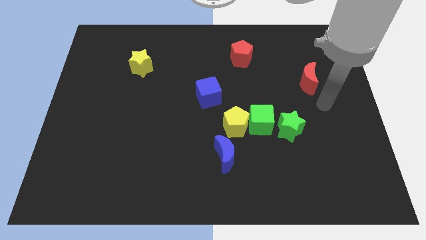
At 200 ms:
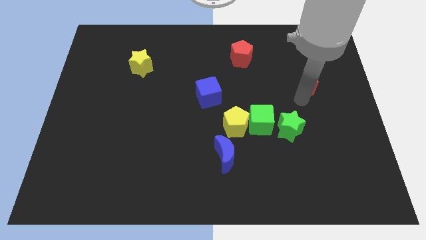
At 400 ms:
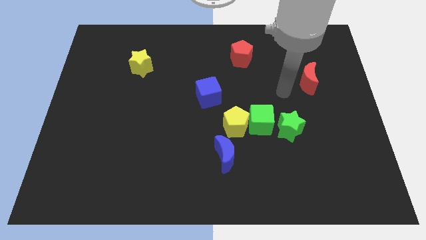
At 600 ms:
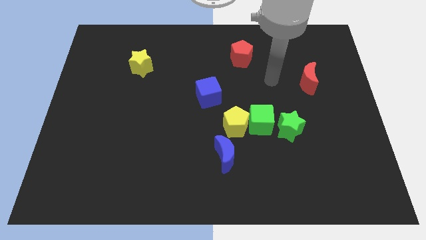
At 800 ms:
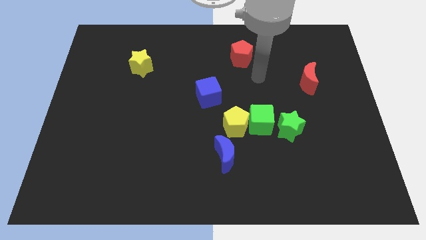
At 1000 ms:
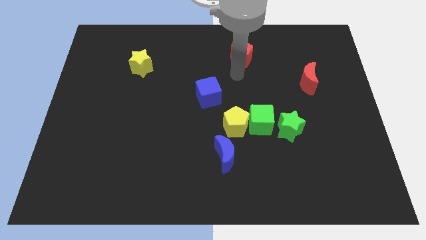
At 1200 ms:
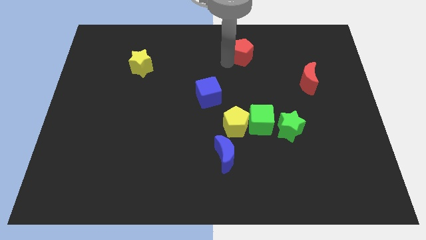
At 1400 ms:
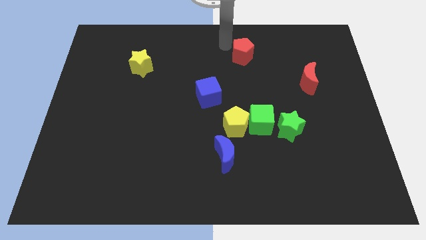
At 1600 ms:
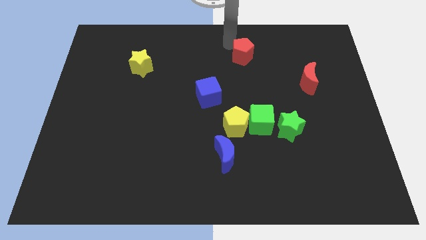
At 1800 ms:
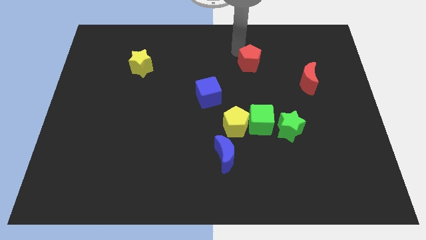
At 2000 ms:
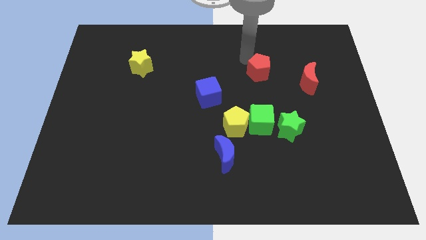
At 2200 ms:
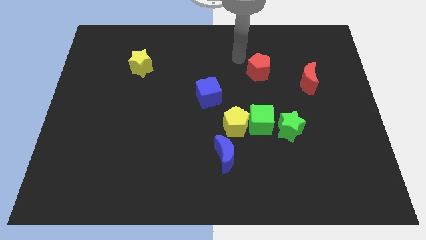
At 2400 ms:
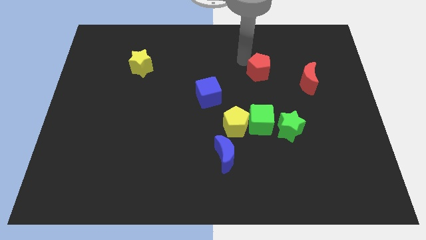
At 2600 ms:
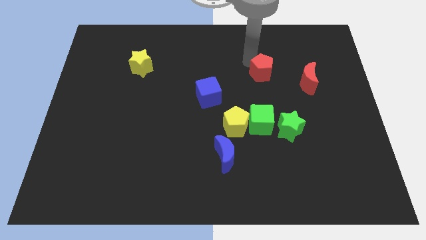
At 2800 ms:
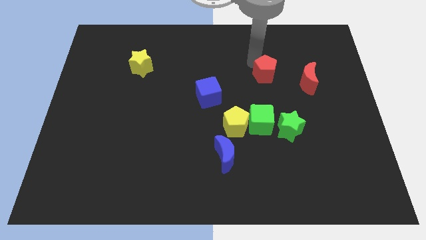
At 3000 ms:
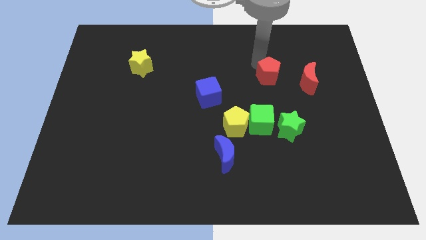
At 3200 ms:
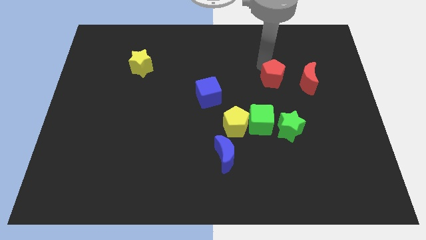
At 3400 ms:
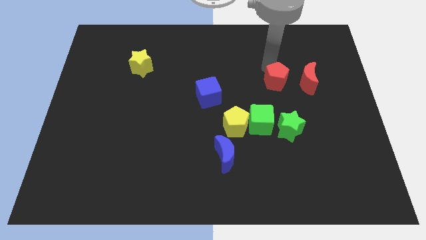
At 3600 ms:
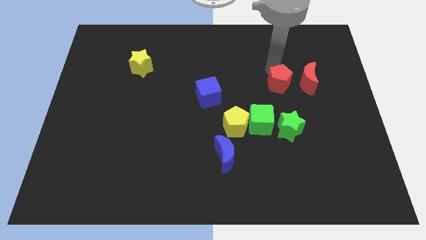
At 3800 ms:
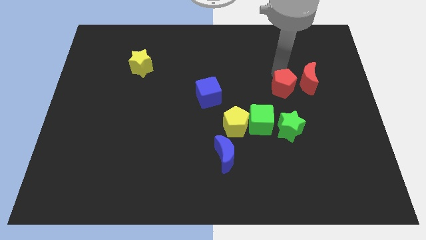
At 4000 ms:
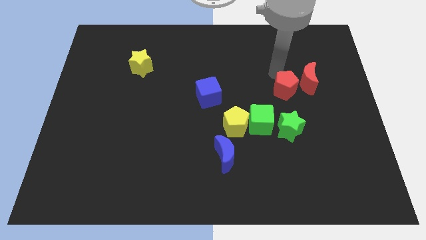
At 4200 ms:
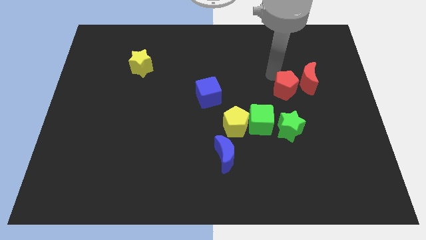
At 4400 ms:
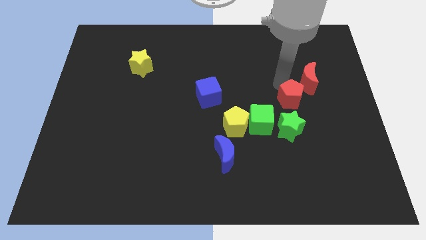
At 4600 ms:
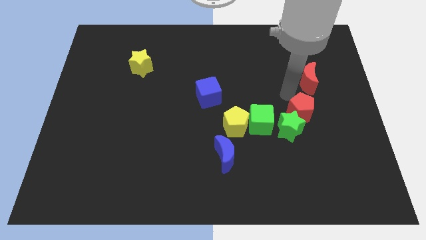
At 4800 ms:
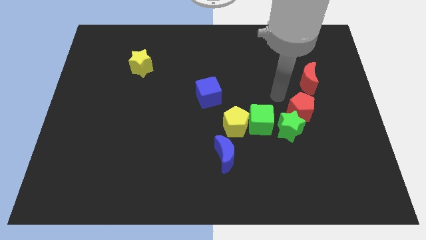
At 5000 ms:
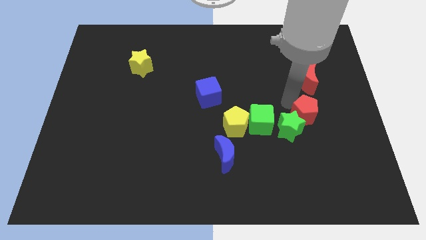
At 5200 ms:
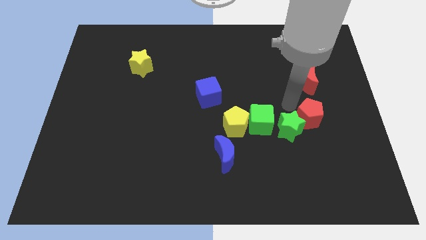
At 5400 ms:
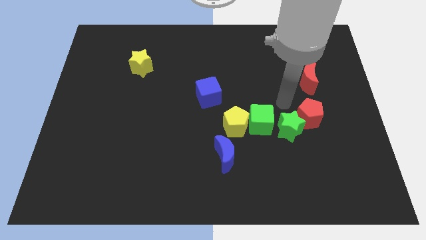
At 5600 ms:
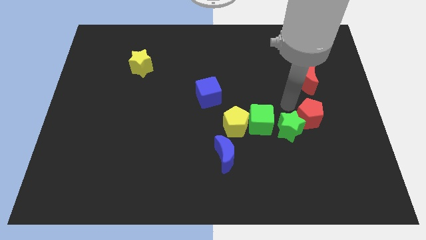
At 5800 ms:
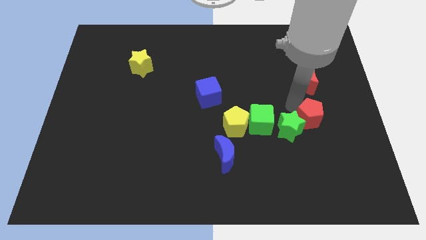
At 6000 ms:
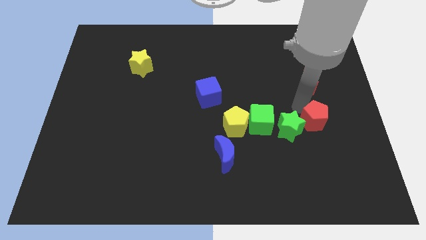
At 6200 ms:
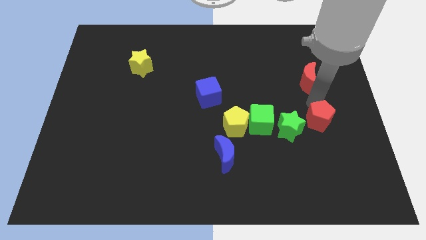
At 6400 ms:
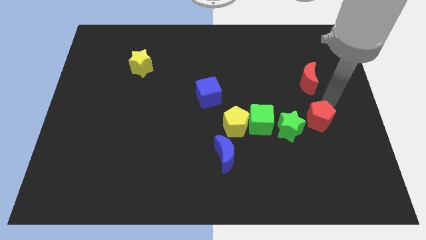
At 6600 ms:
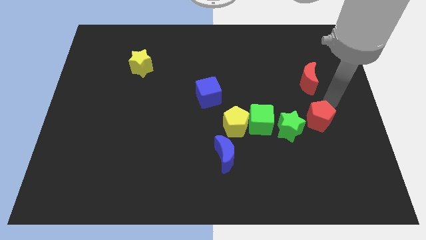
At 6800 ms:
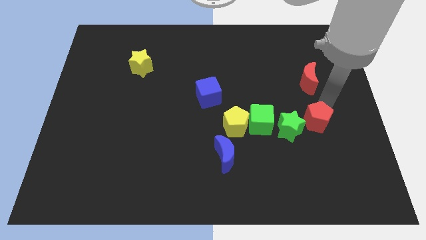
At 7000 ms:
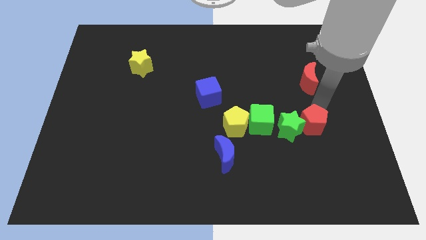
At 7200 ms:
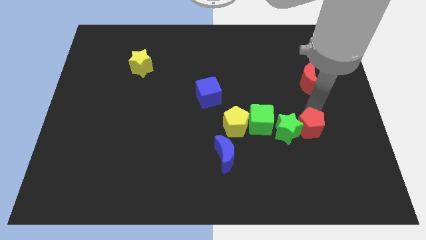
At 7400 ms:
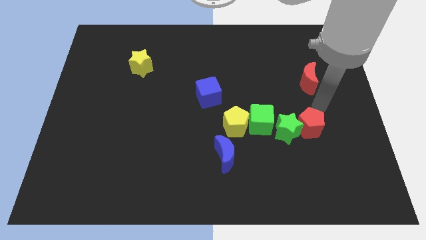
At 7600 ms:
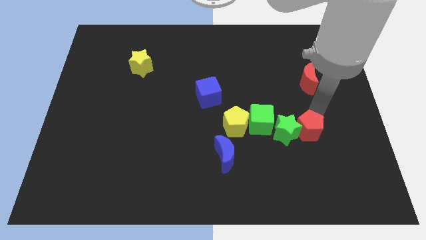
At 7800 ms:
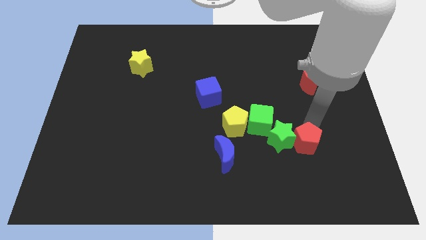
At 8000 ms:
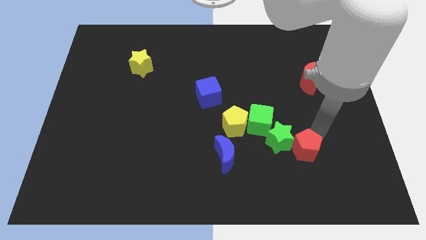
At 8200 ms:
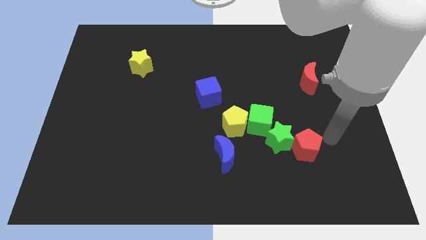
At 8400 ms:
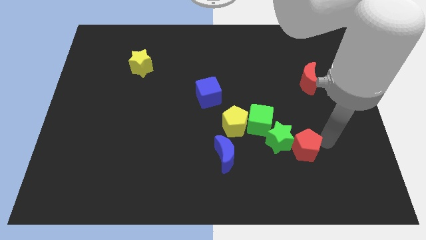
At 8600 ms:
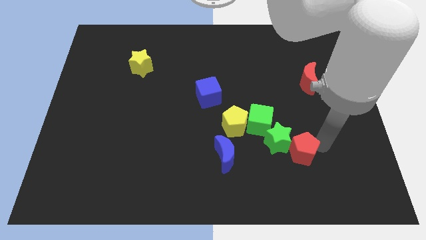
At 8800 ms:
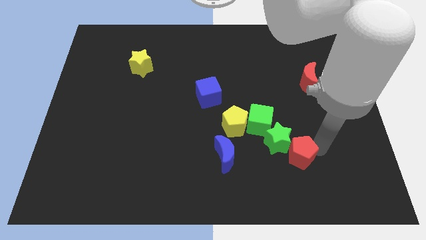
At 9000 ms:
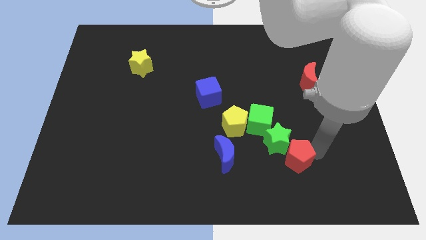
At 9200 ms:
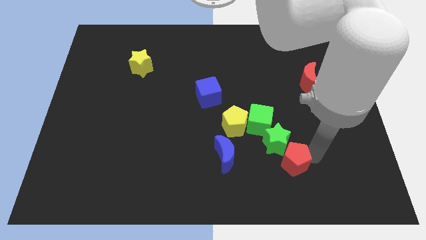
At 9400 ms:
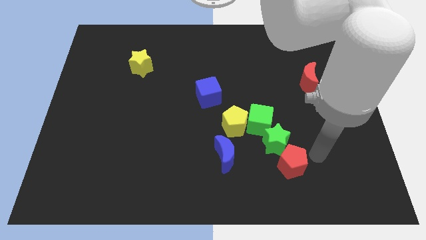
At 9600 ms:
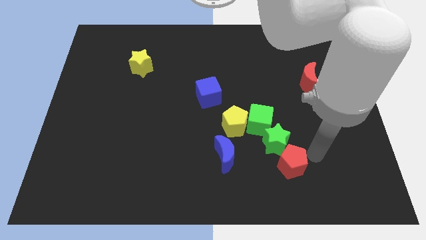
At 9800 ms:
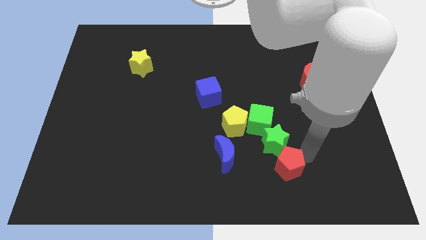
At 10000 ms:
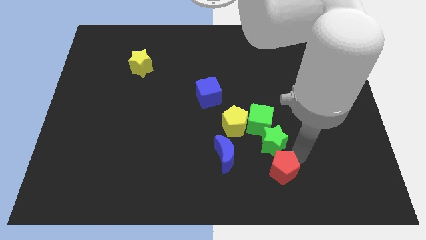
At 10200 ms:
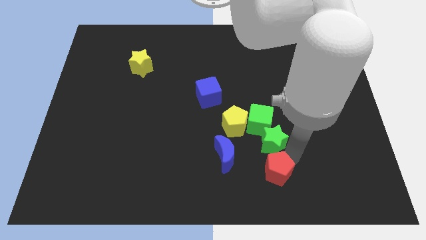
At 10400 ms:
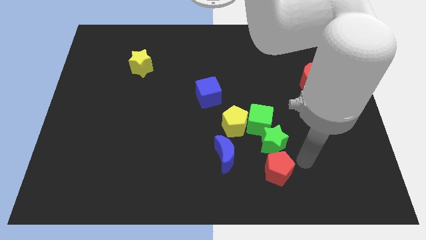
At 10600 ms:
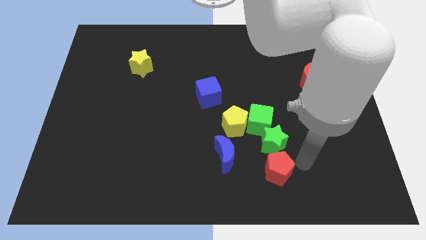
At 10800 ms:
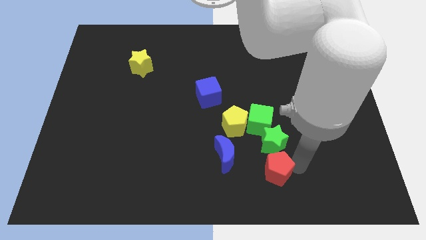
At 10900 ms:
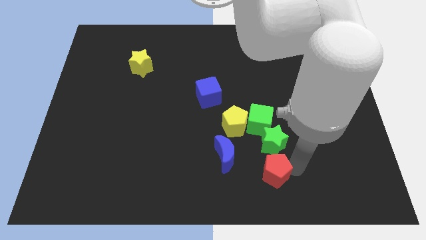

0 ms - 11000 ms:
slide the red pentagon to the bottom right of the blue moon

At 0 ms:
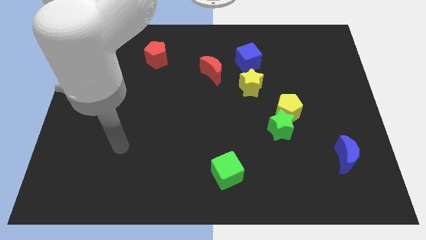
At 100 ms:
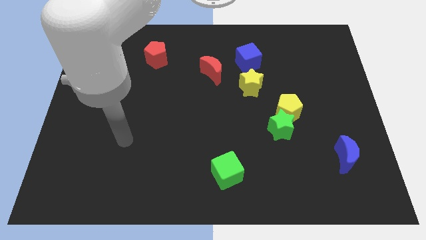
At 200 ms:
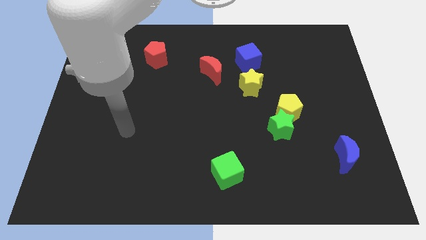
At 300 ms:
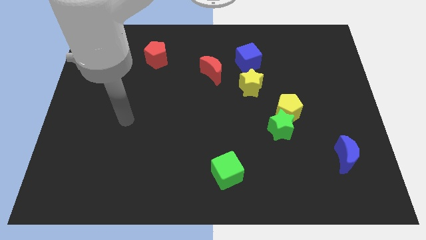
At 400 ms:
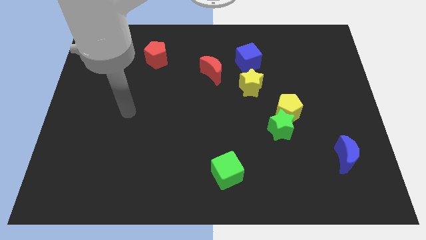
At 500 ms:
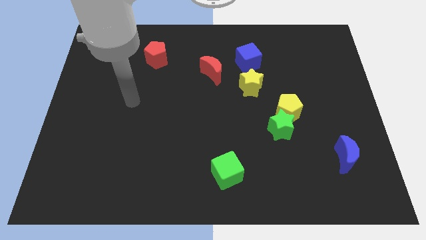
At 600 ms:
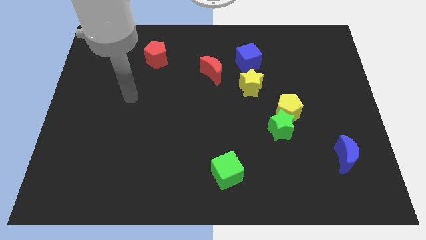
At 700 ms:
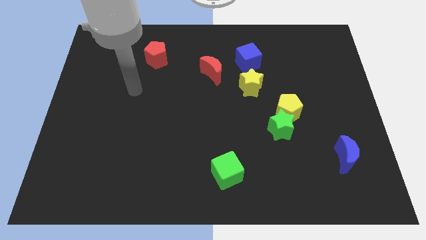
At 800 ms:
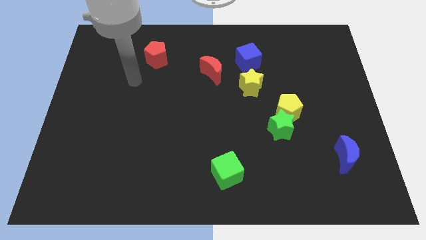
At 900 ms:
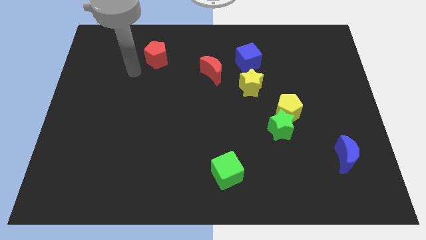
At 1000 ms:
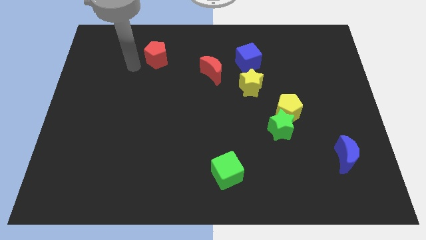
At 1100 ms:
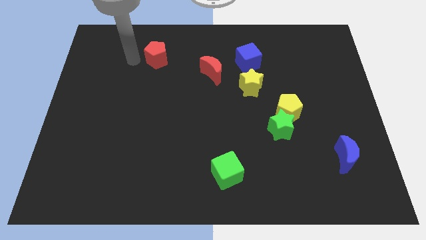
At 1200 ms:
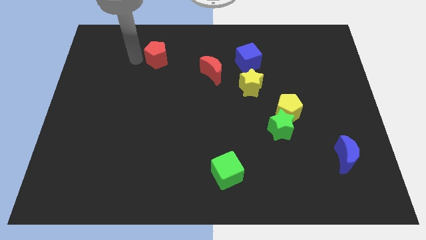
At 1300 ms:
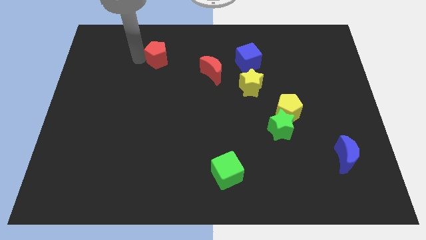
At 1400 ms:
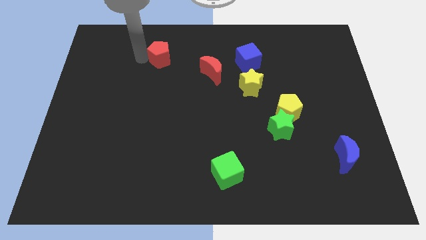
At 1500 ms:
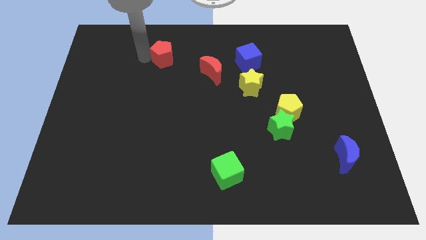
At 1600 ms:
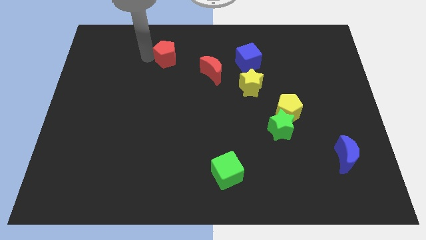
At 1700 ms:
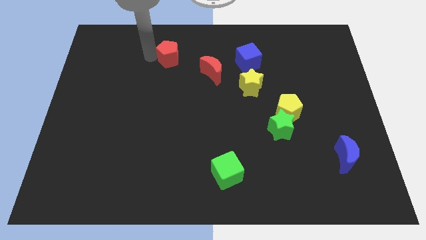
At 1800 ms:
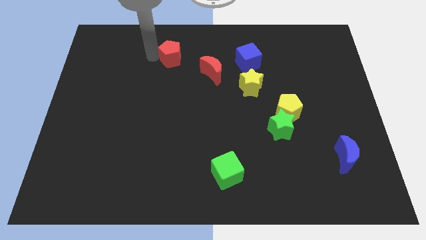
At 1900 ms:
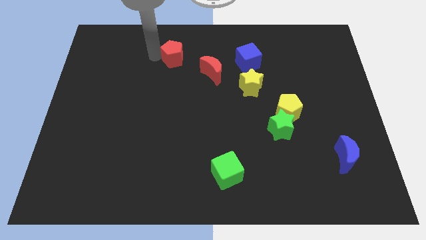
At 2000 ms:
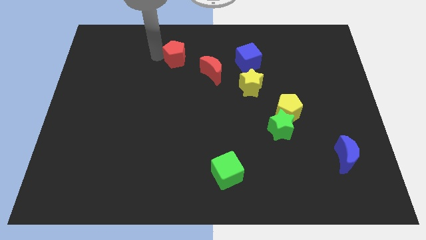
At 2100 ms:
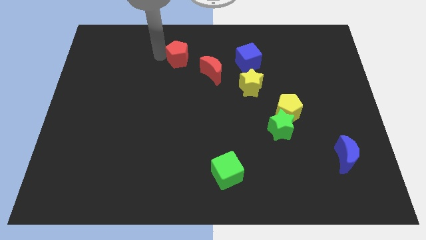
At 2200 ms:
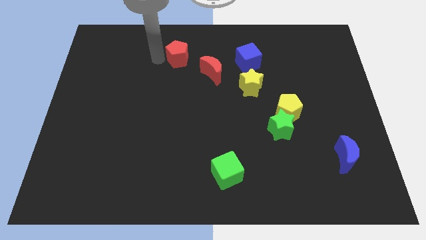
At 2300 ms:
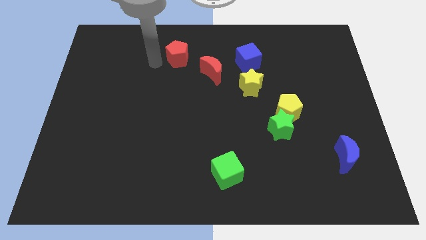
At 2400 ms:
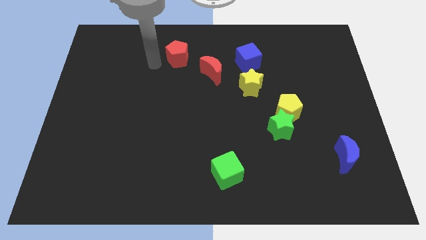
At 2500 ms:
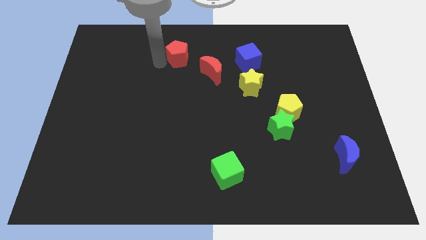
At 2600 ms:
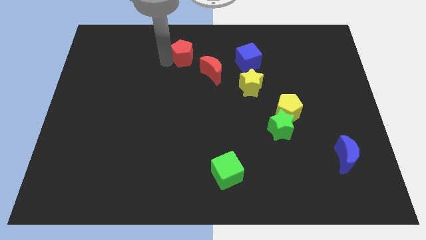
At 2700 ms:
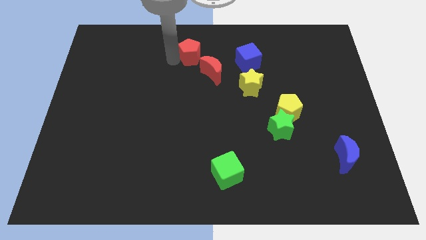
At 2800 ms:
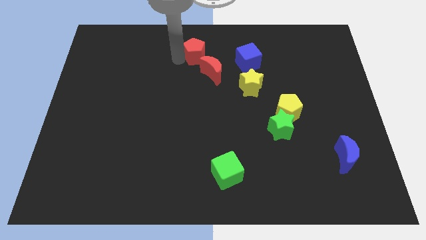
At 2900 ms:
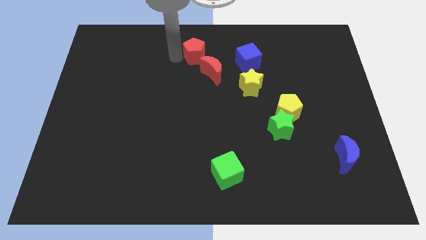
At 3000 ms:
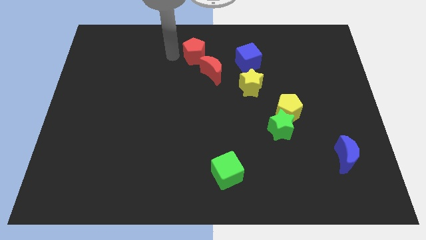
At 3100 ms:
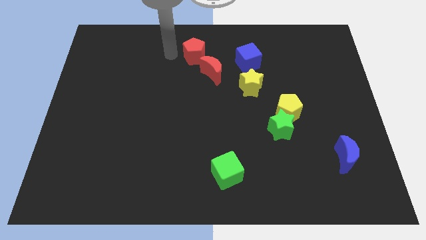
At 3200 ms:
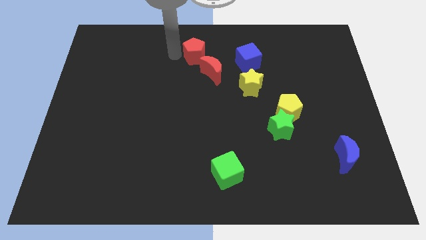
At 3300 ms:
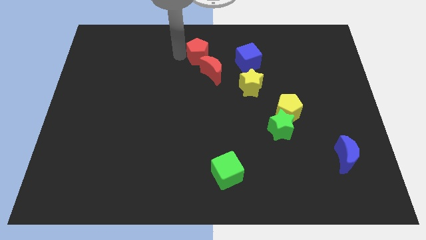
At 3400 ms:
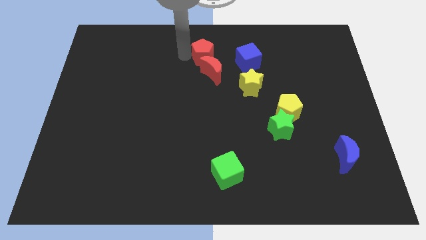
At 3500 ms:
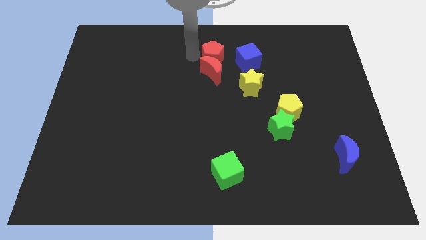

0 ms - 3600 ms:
push the red pentagon to the top right of the red moon
